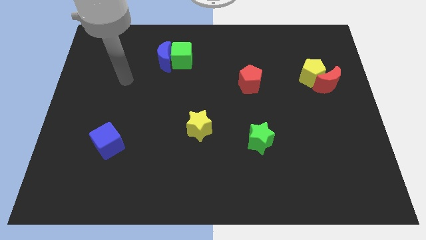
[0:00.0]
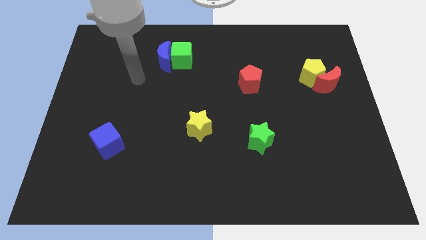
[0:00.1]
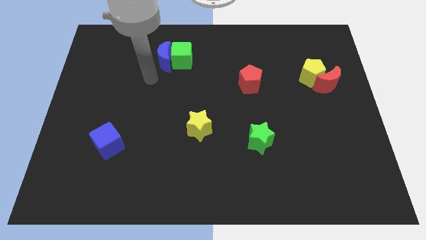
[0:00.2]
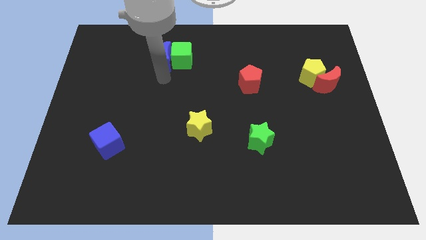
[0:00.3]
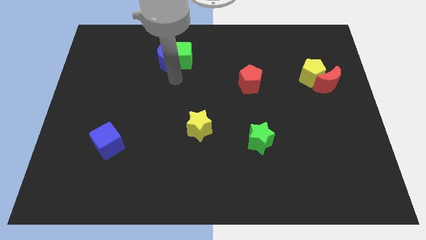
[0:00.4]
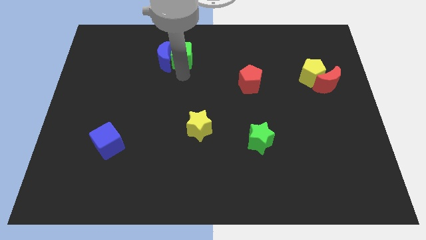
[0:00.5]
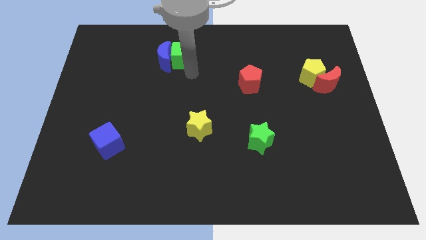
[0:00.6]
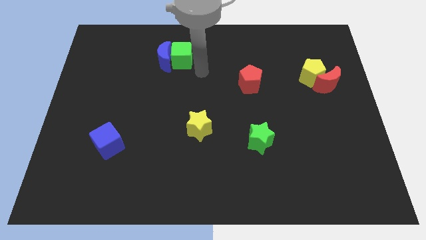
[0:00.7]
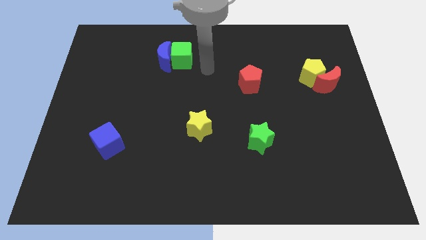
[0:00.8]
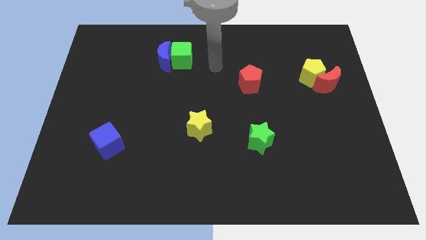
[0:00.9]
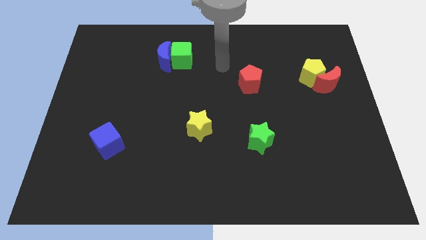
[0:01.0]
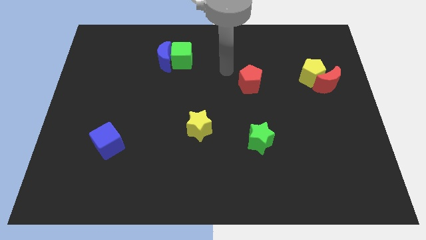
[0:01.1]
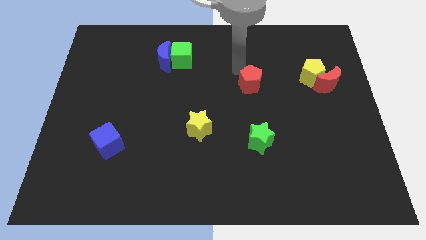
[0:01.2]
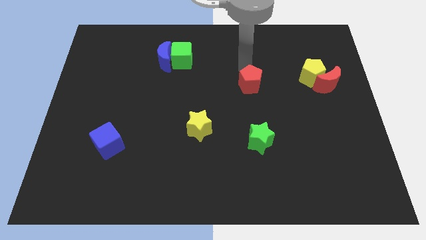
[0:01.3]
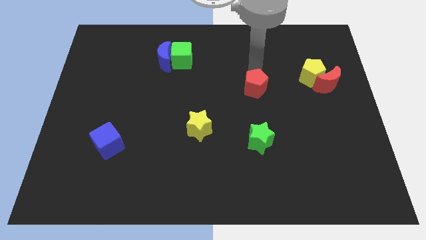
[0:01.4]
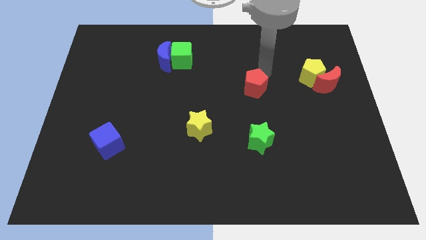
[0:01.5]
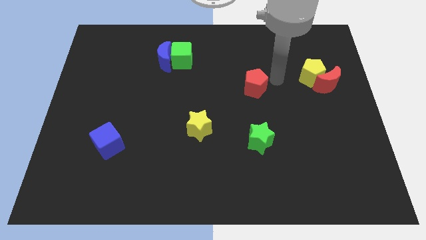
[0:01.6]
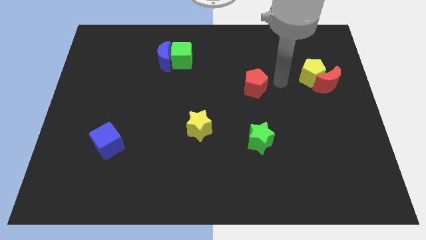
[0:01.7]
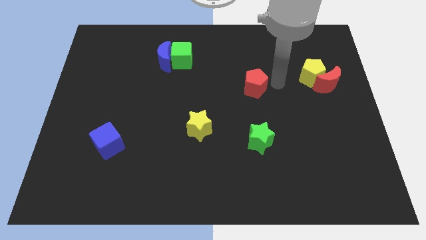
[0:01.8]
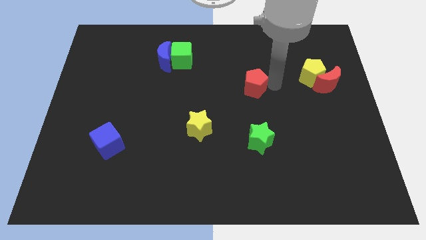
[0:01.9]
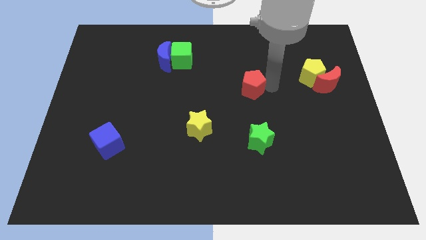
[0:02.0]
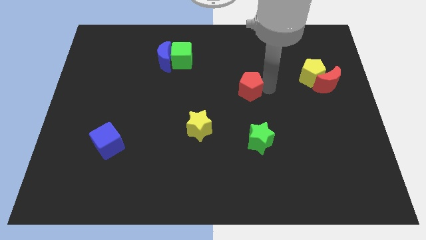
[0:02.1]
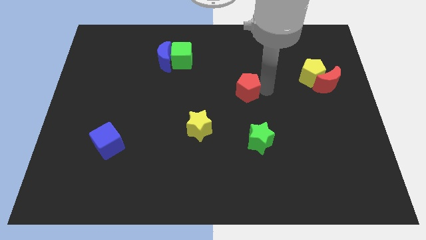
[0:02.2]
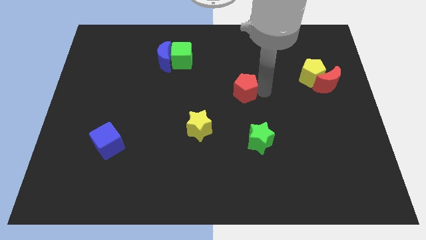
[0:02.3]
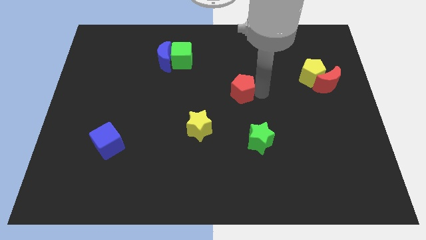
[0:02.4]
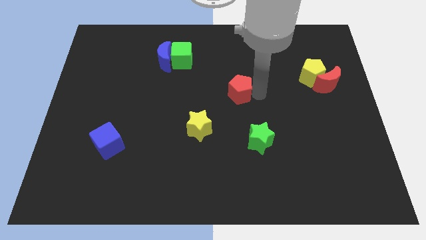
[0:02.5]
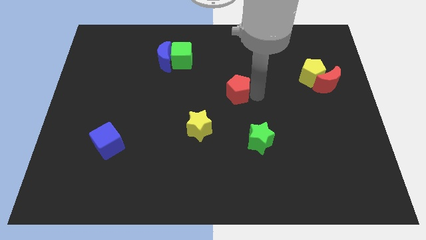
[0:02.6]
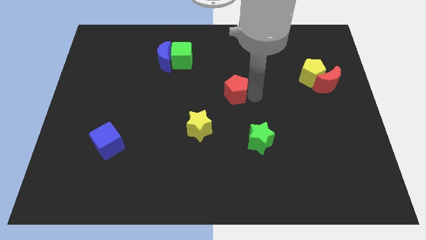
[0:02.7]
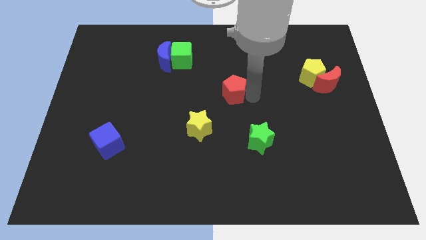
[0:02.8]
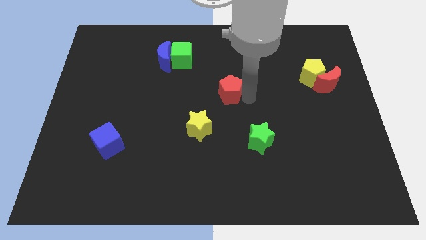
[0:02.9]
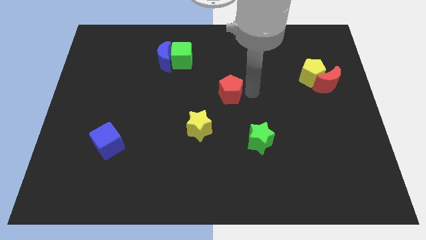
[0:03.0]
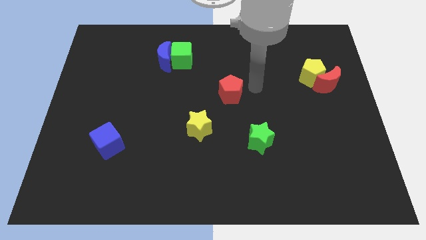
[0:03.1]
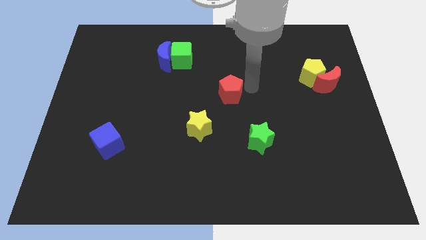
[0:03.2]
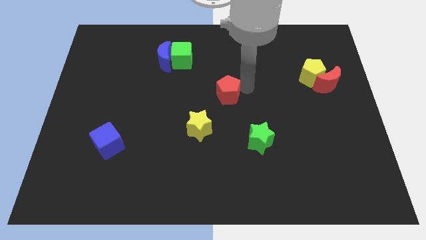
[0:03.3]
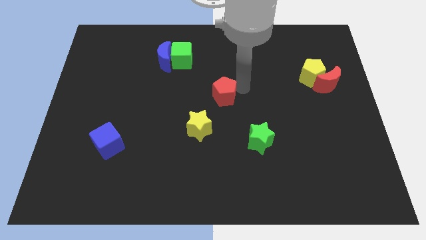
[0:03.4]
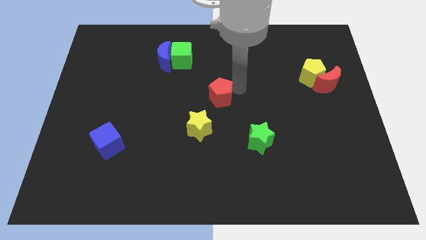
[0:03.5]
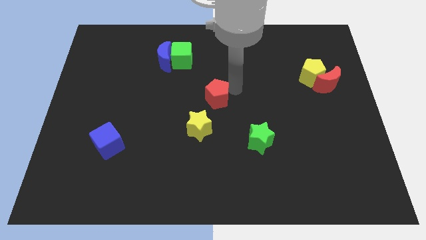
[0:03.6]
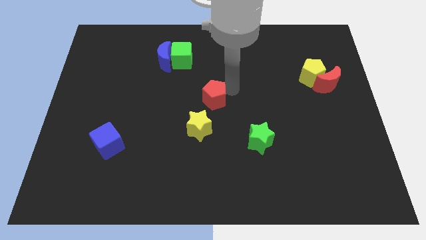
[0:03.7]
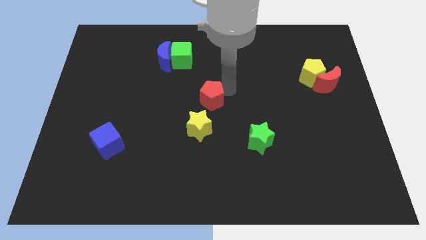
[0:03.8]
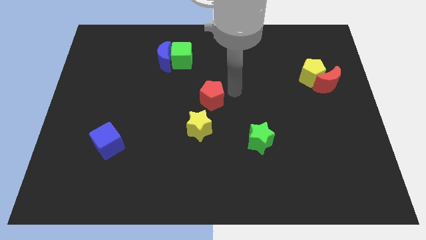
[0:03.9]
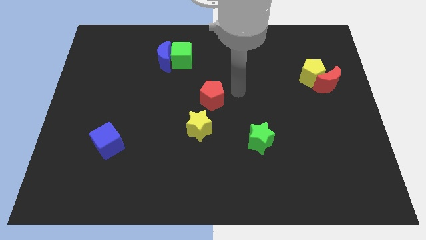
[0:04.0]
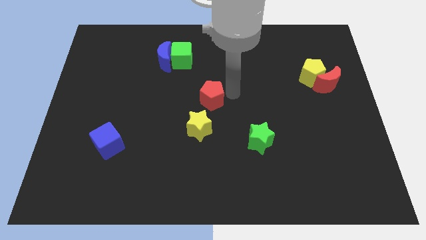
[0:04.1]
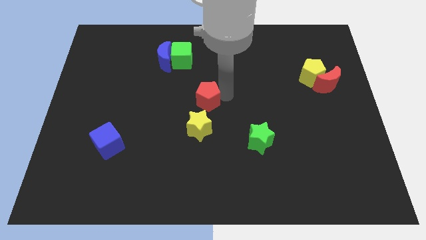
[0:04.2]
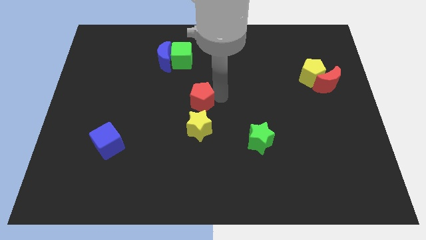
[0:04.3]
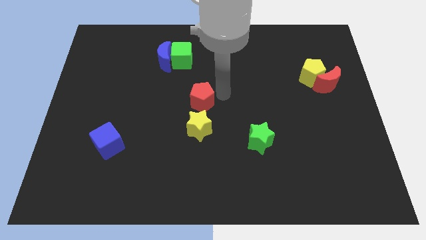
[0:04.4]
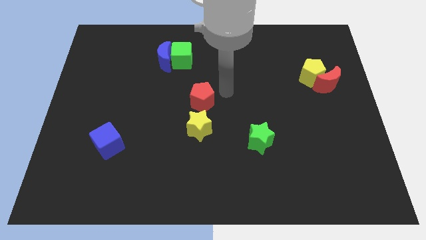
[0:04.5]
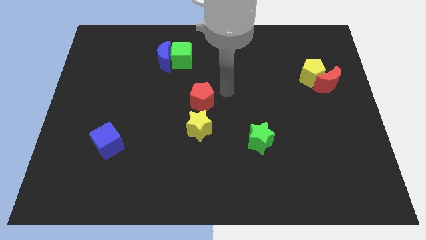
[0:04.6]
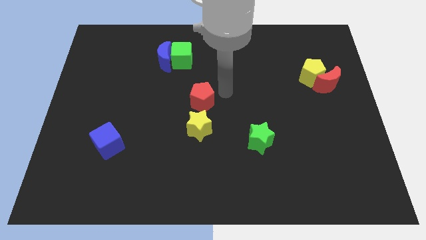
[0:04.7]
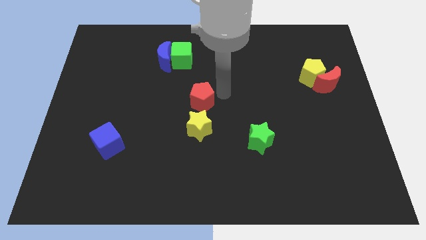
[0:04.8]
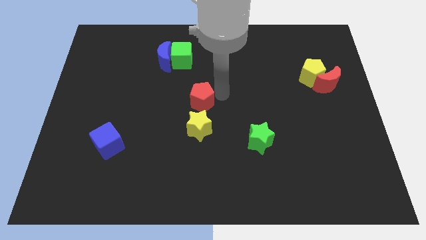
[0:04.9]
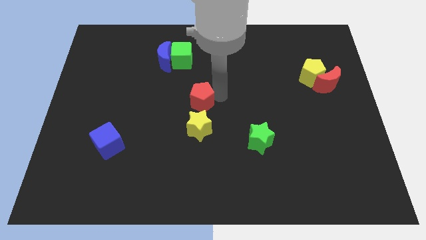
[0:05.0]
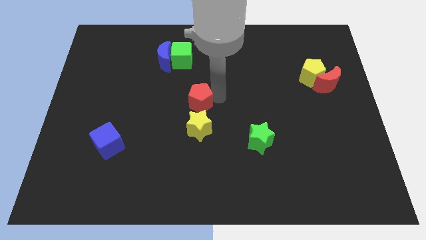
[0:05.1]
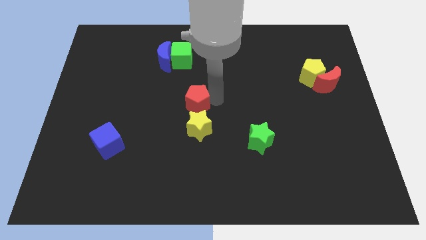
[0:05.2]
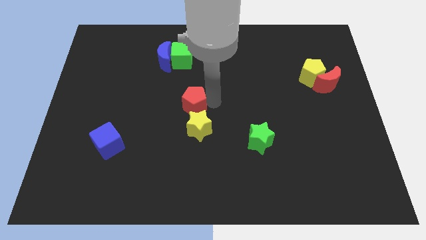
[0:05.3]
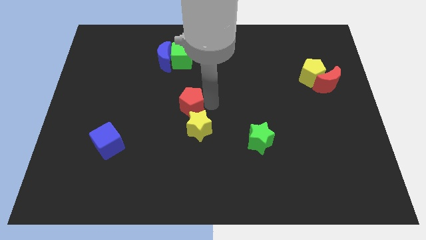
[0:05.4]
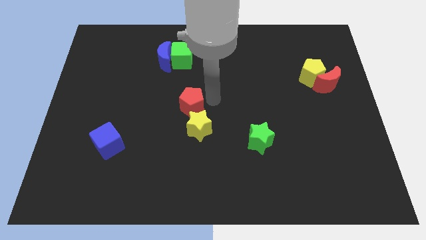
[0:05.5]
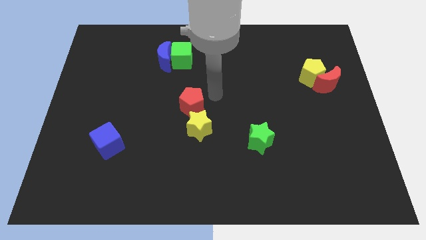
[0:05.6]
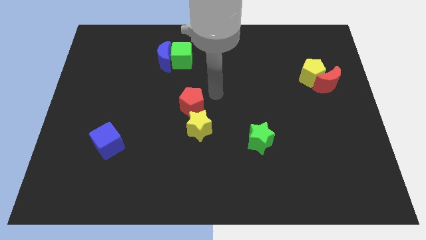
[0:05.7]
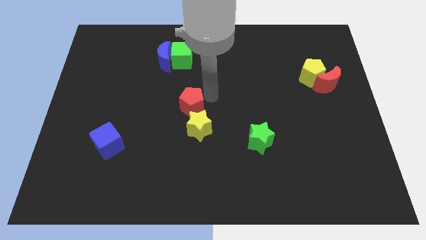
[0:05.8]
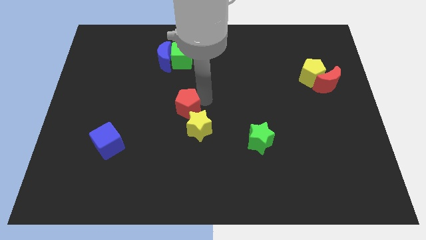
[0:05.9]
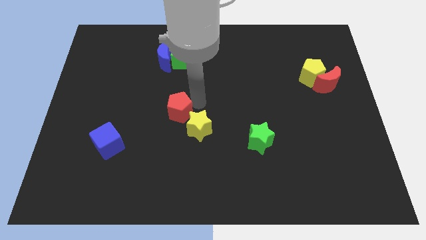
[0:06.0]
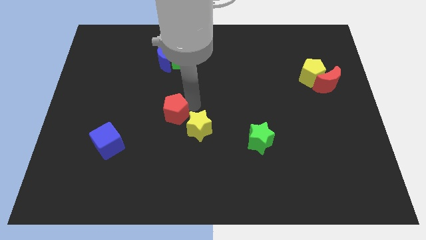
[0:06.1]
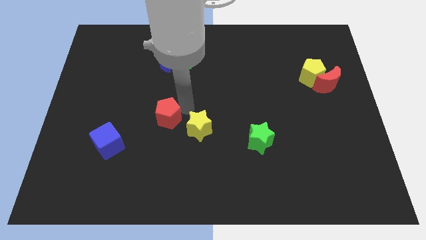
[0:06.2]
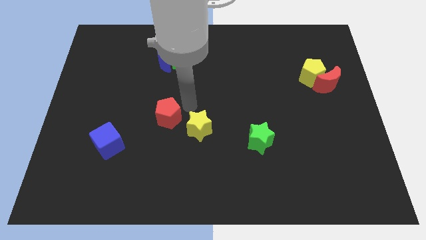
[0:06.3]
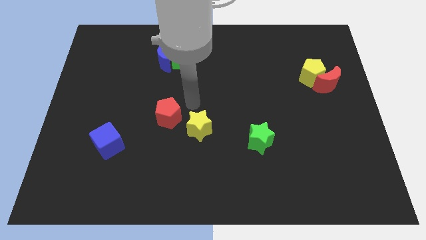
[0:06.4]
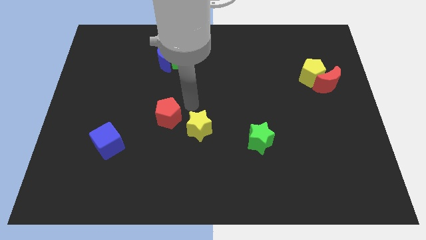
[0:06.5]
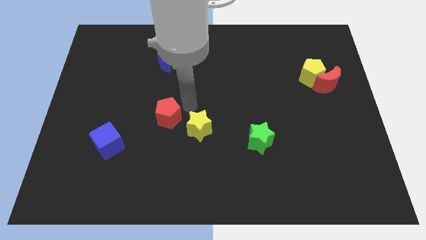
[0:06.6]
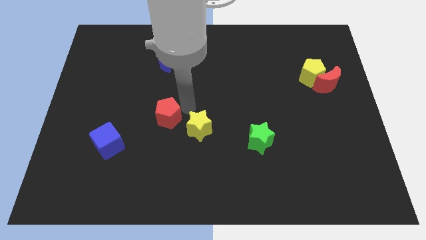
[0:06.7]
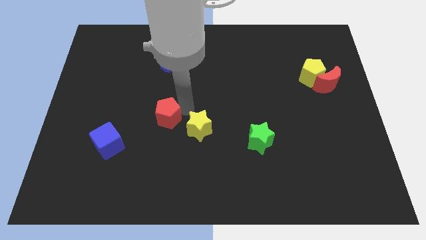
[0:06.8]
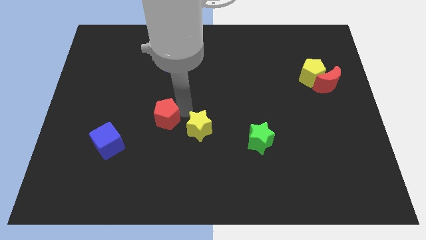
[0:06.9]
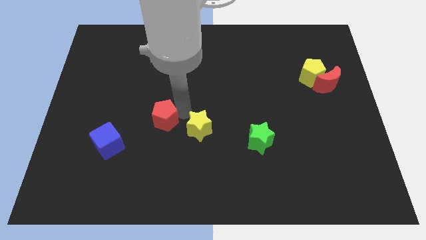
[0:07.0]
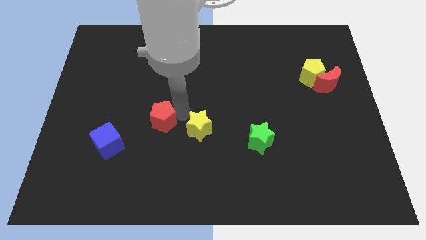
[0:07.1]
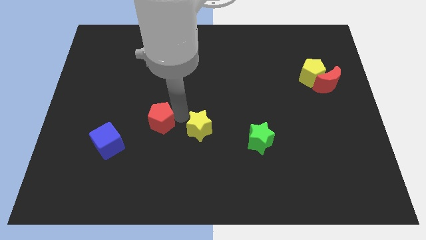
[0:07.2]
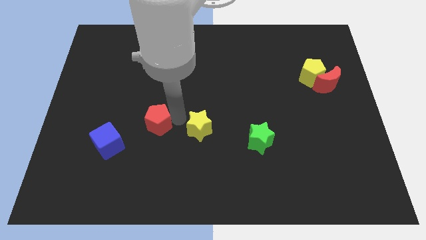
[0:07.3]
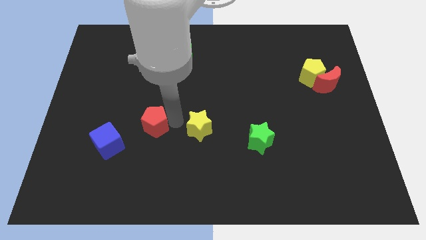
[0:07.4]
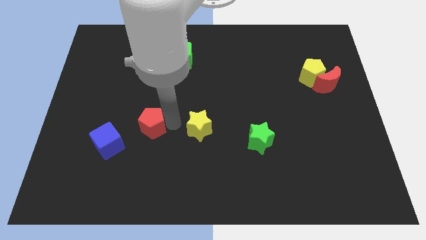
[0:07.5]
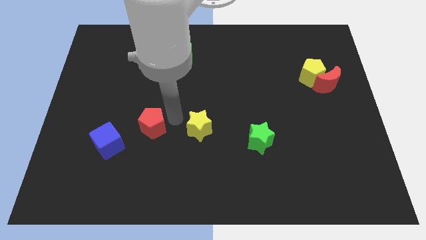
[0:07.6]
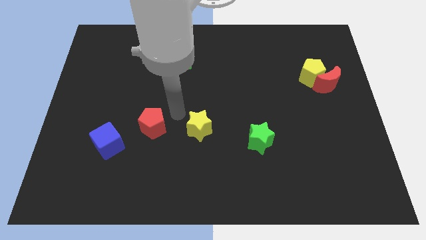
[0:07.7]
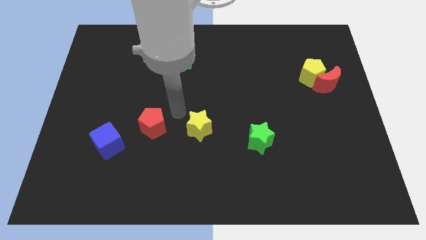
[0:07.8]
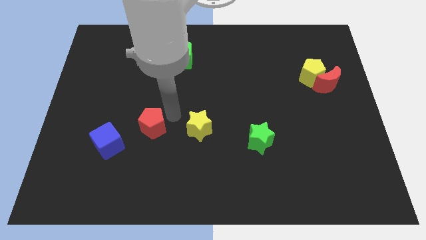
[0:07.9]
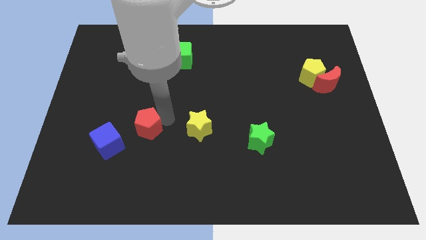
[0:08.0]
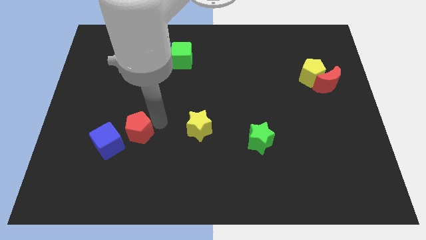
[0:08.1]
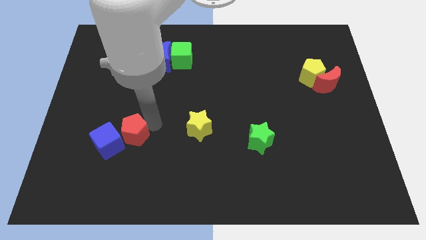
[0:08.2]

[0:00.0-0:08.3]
put the red pentagon next to the blue cube
